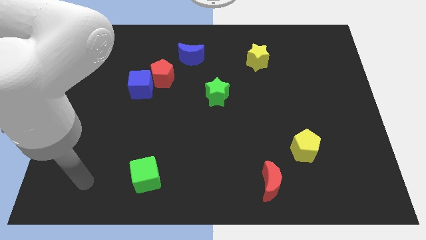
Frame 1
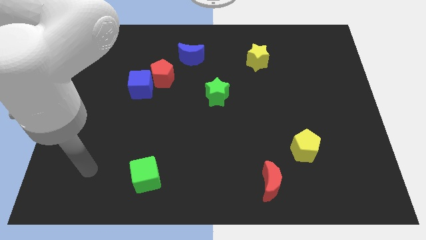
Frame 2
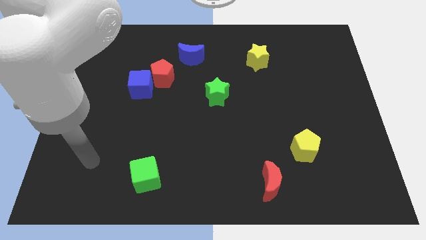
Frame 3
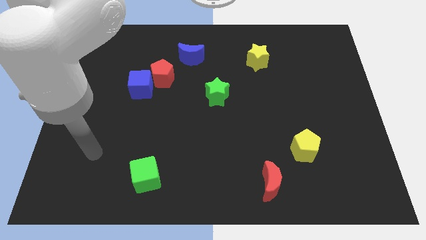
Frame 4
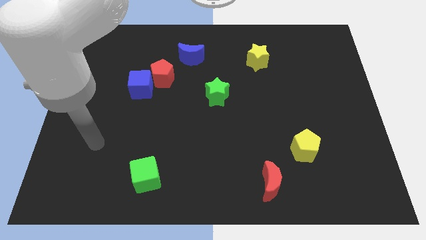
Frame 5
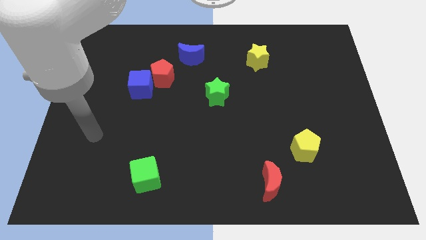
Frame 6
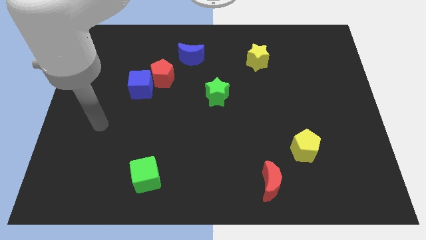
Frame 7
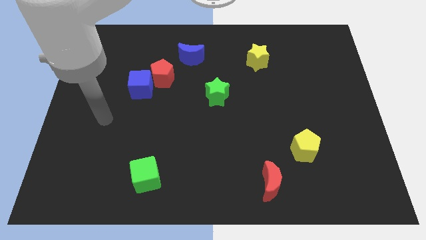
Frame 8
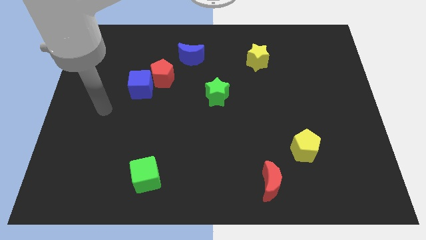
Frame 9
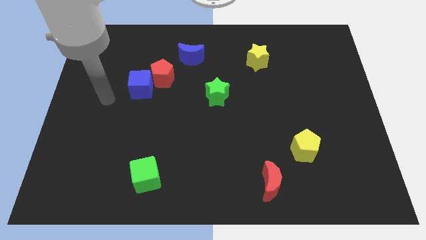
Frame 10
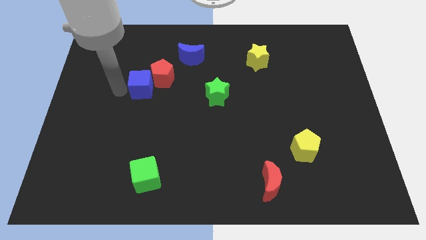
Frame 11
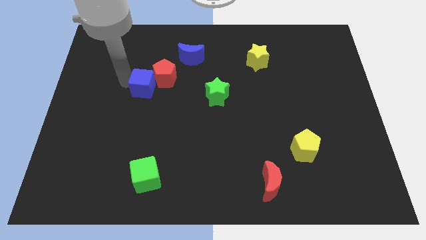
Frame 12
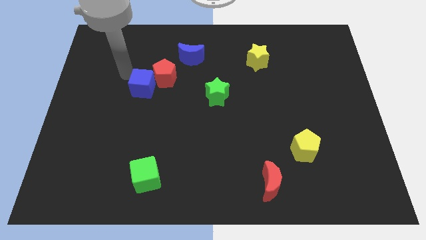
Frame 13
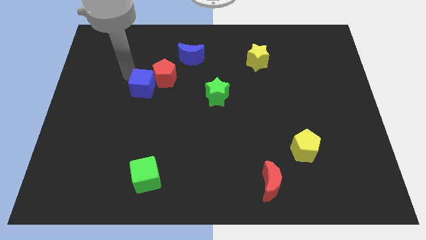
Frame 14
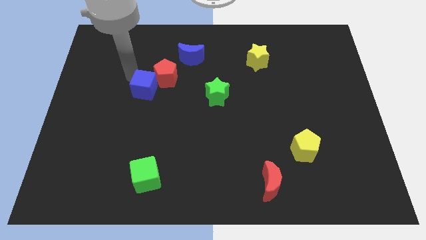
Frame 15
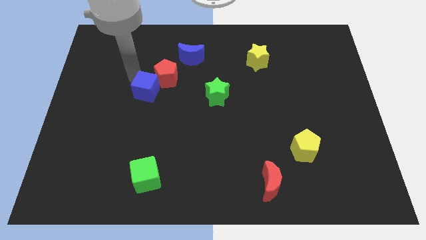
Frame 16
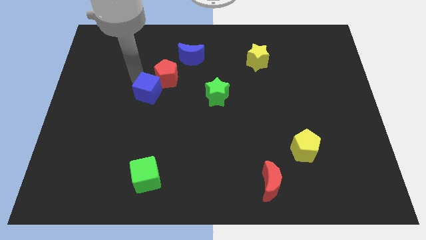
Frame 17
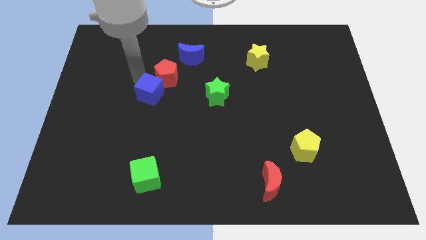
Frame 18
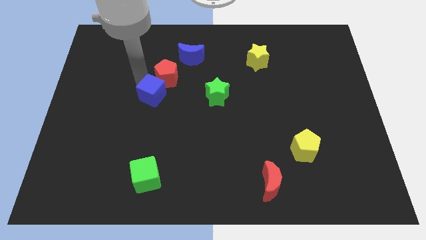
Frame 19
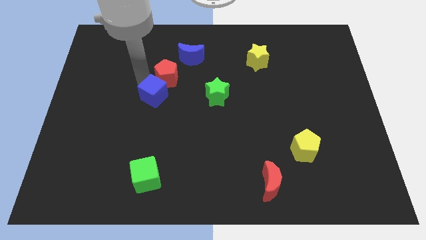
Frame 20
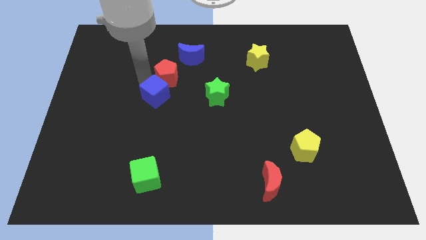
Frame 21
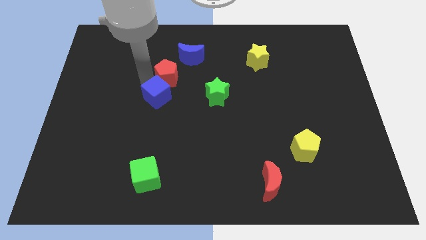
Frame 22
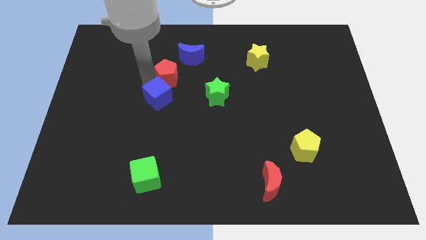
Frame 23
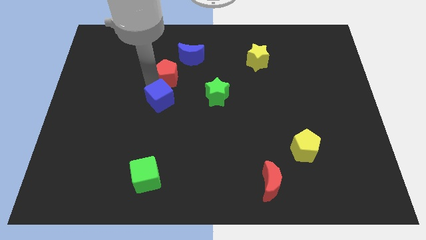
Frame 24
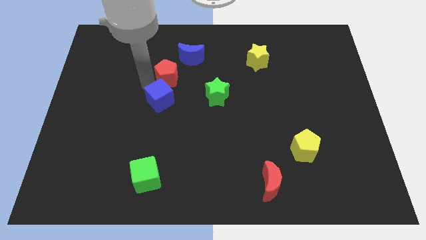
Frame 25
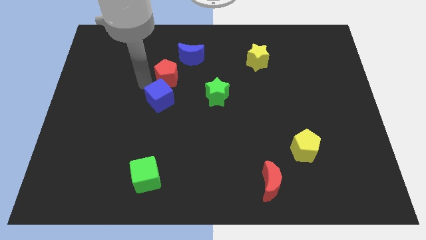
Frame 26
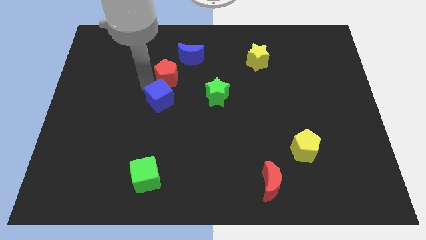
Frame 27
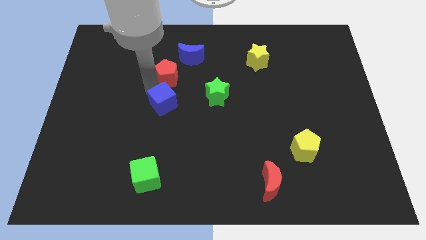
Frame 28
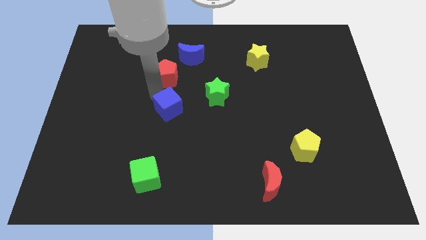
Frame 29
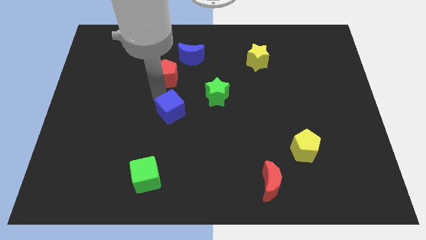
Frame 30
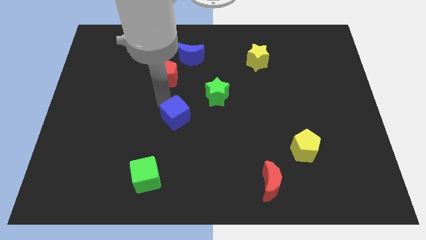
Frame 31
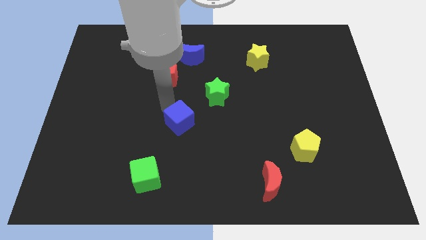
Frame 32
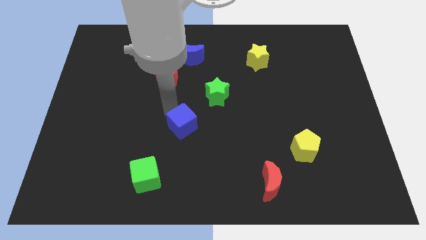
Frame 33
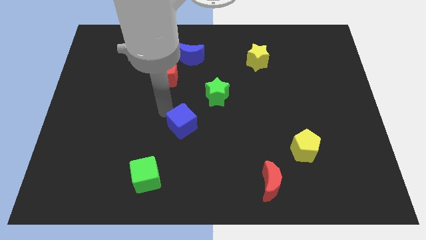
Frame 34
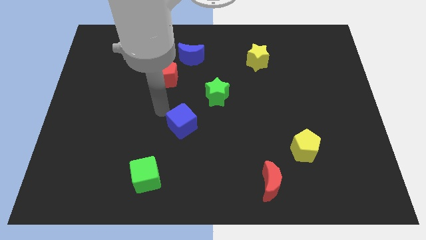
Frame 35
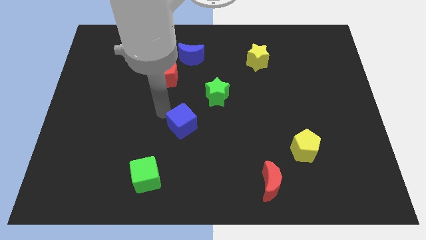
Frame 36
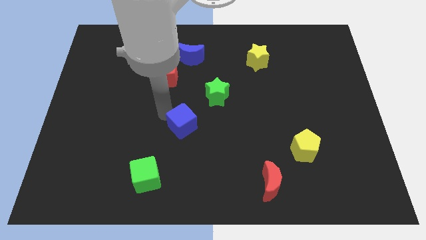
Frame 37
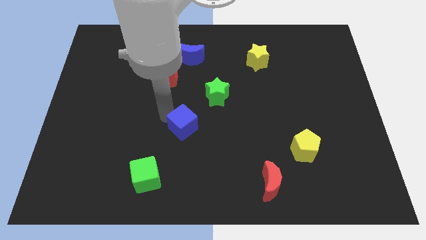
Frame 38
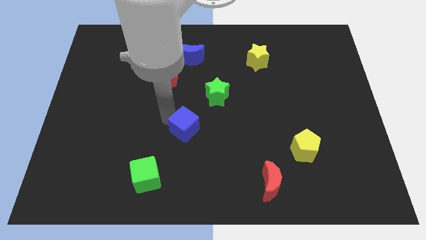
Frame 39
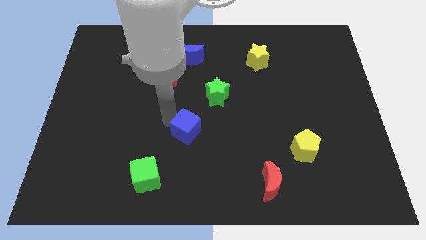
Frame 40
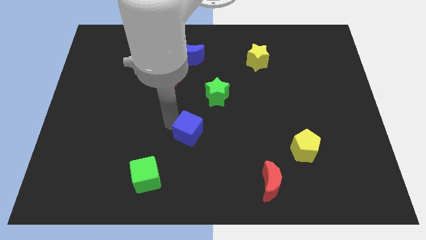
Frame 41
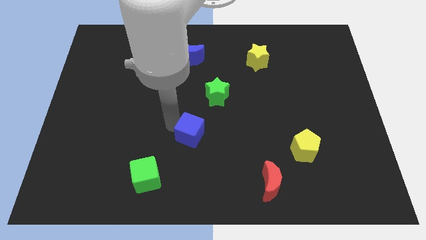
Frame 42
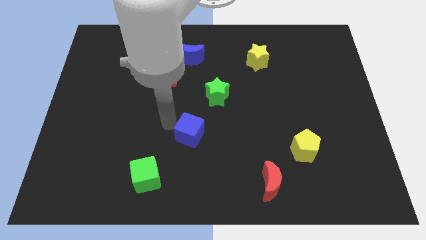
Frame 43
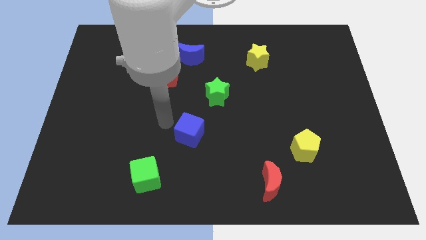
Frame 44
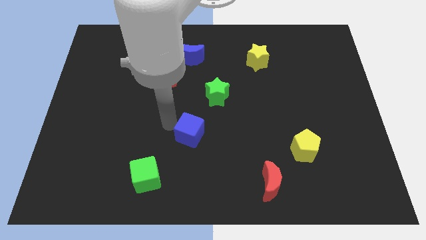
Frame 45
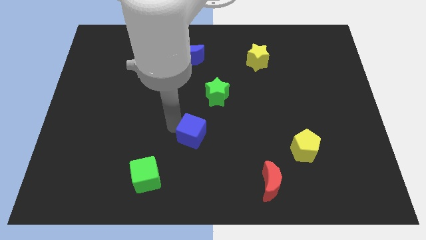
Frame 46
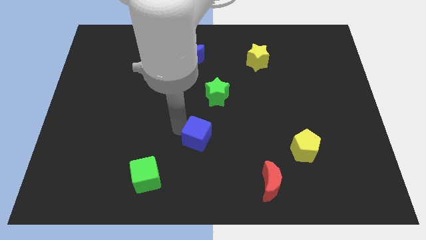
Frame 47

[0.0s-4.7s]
slide the blue cube down and then to the right

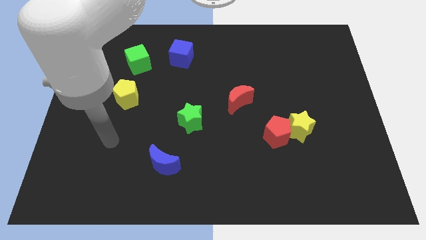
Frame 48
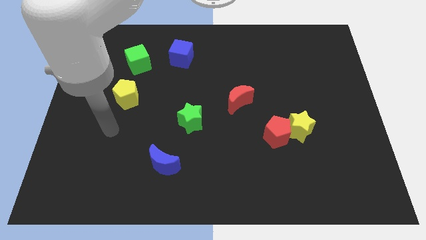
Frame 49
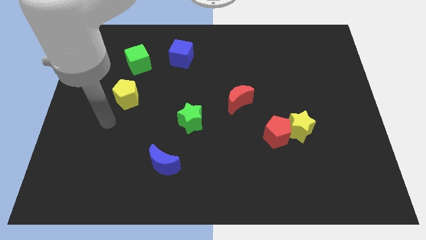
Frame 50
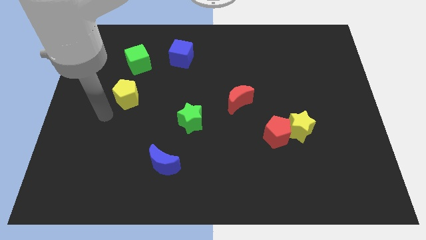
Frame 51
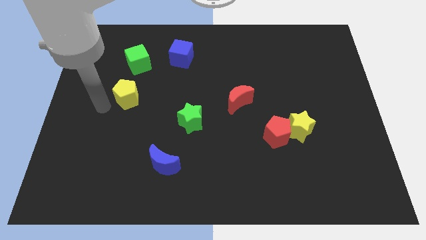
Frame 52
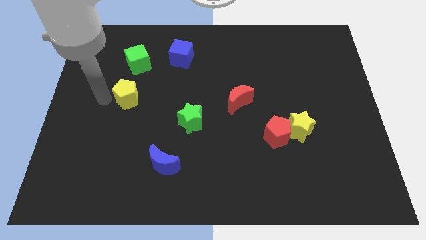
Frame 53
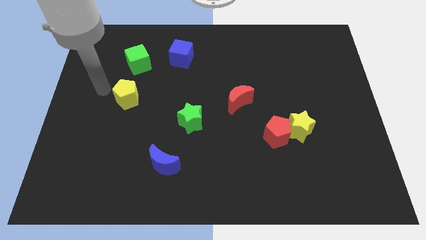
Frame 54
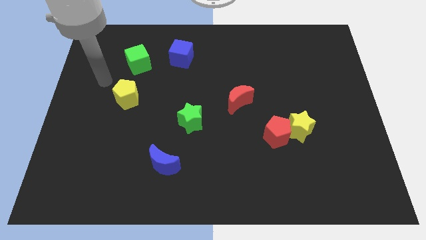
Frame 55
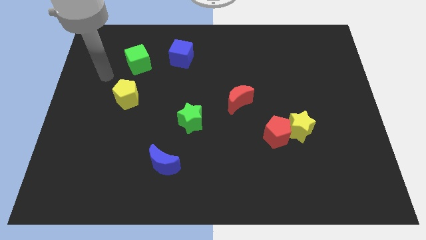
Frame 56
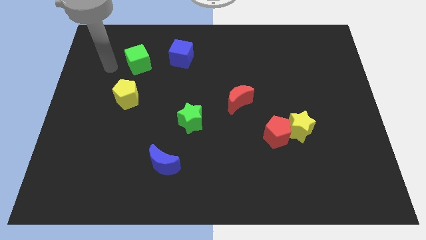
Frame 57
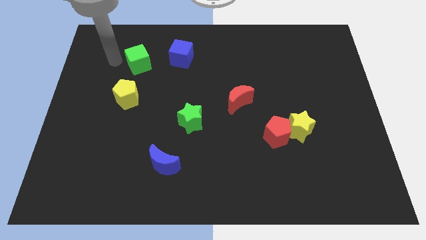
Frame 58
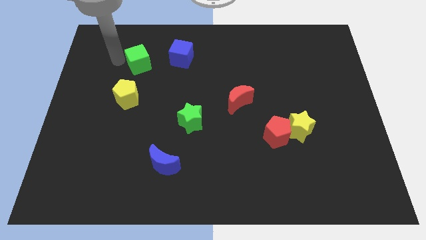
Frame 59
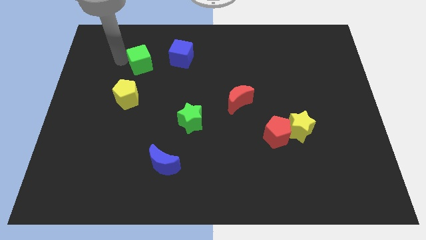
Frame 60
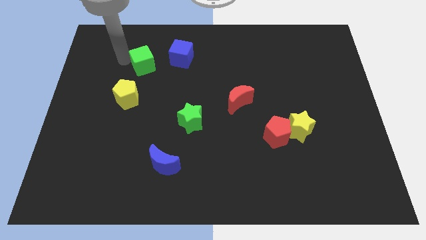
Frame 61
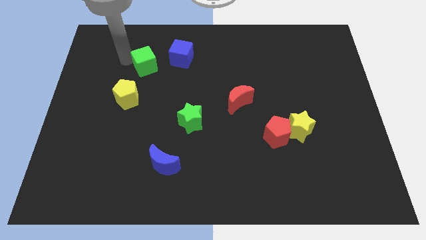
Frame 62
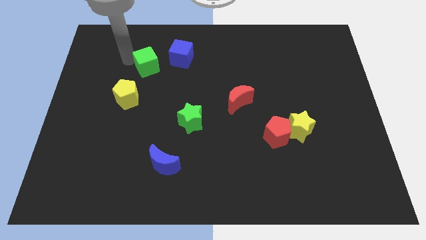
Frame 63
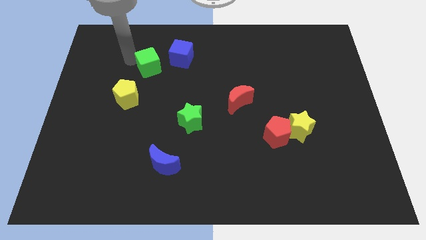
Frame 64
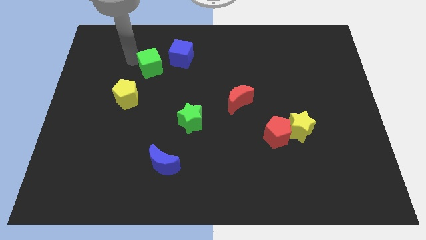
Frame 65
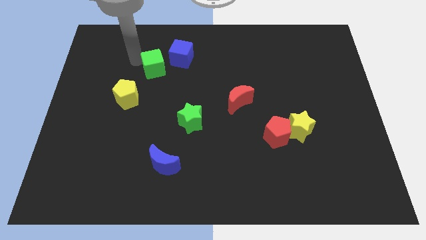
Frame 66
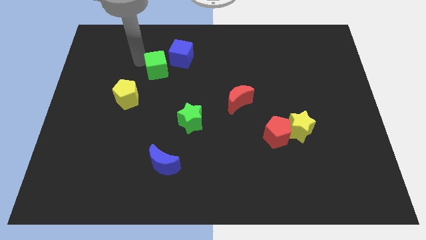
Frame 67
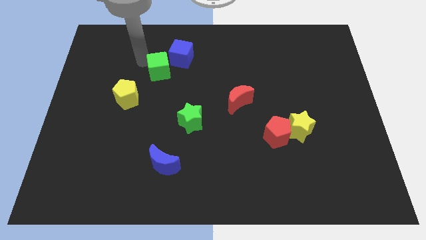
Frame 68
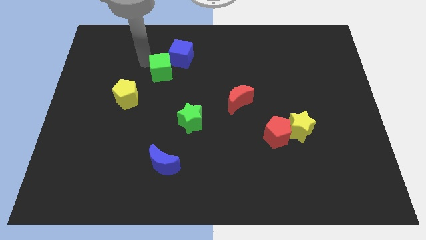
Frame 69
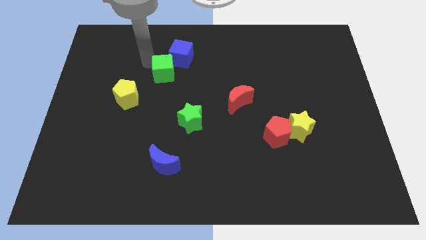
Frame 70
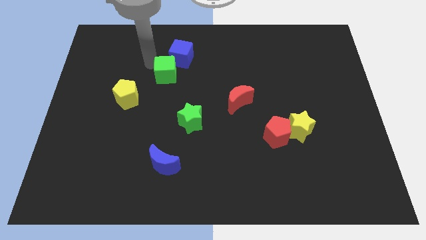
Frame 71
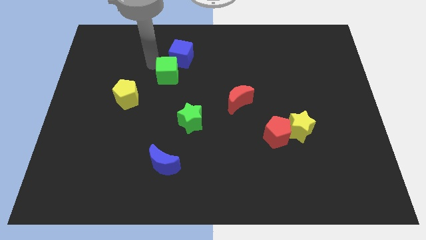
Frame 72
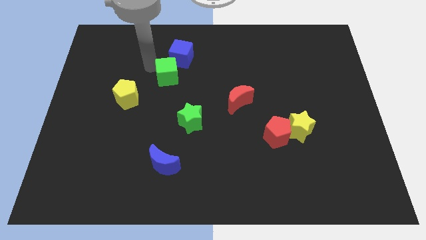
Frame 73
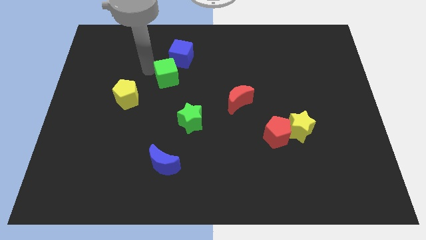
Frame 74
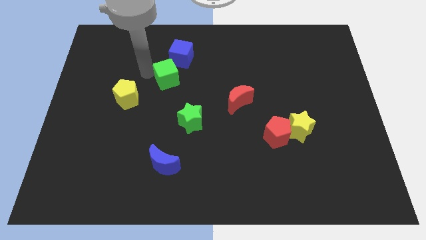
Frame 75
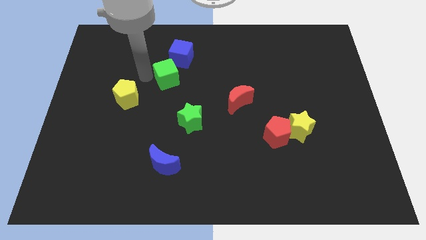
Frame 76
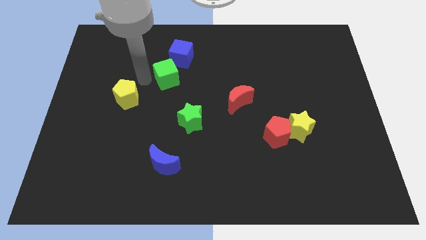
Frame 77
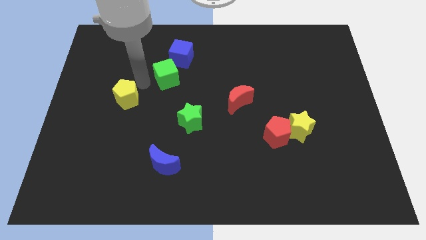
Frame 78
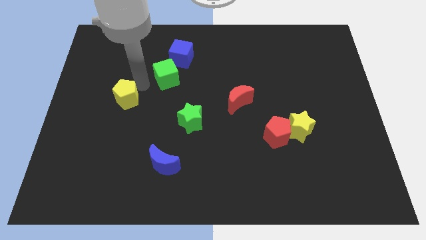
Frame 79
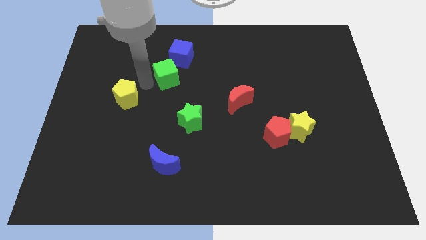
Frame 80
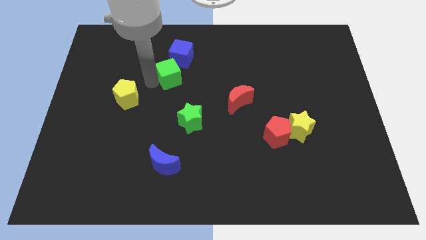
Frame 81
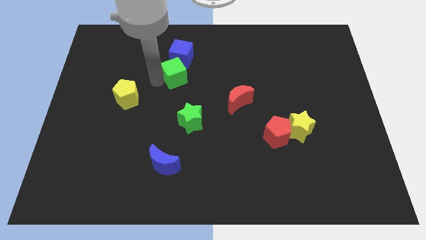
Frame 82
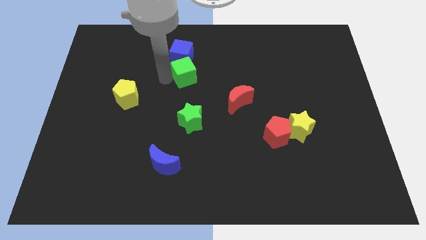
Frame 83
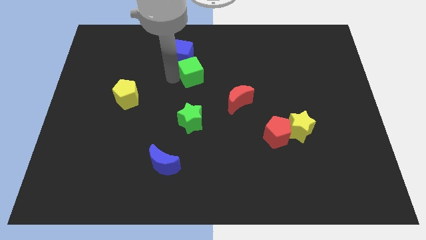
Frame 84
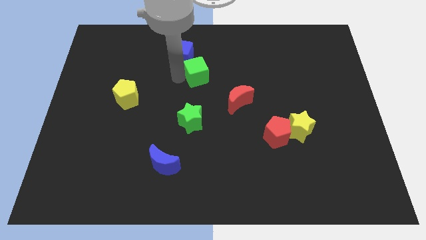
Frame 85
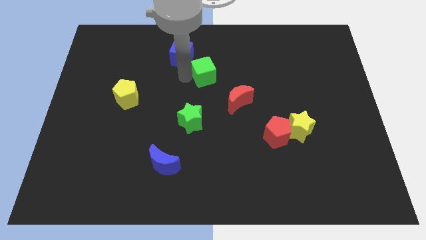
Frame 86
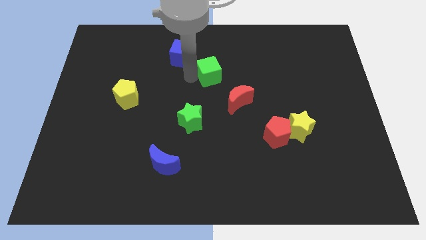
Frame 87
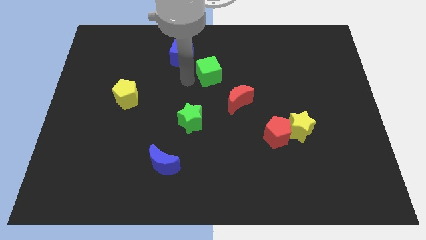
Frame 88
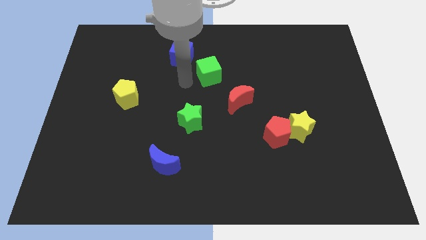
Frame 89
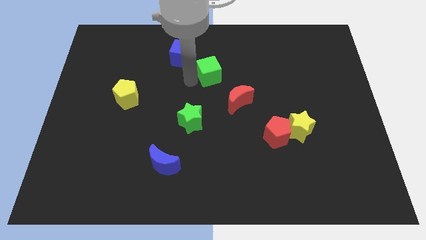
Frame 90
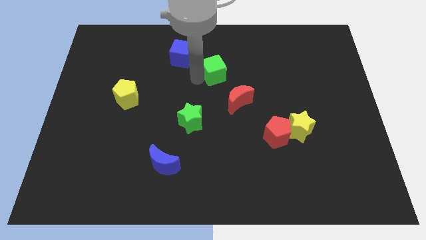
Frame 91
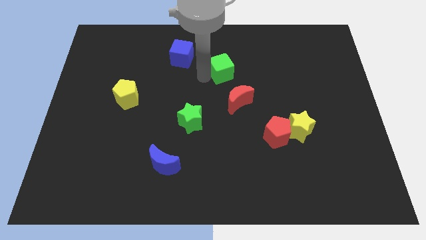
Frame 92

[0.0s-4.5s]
slide the green cube right
